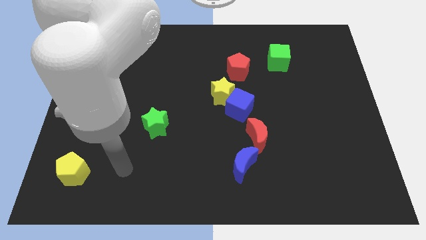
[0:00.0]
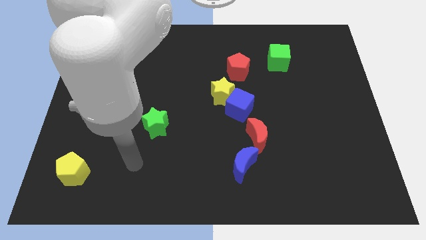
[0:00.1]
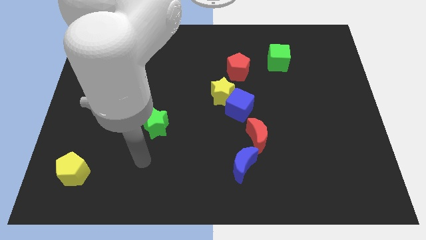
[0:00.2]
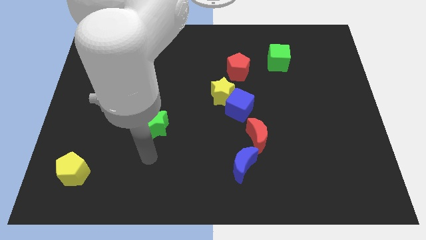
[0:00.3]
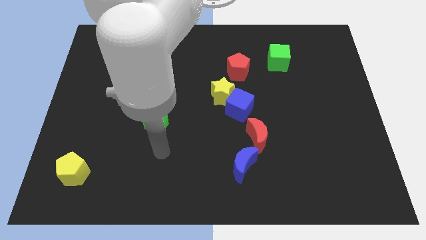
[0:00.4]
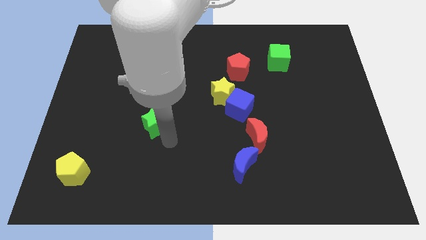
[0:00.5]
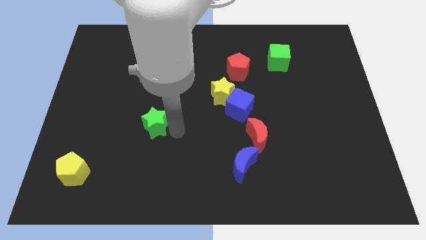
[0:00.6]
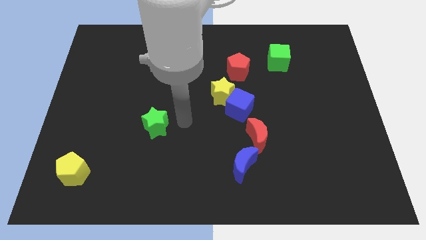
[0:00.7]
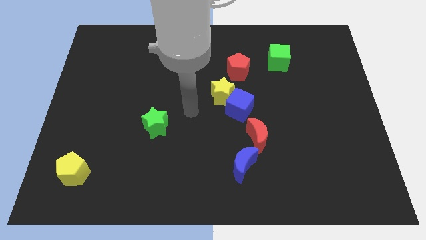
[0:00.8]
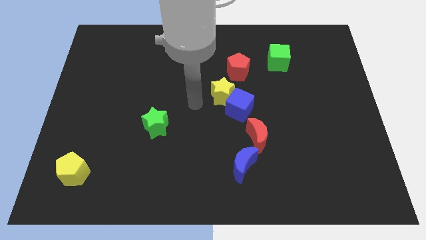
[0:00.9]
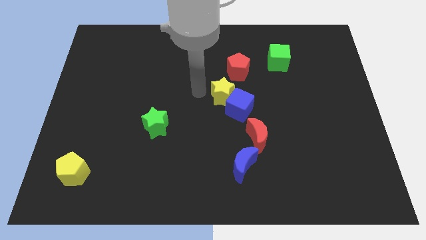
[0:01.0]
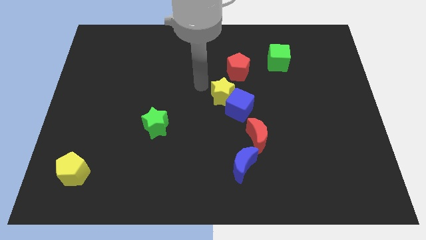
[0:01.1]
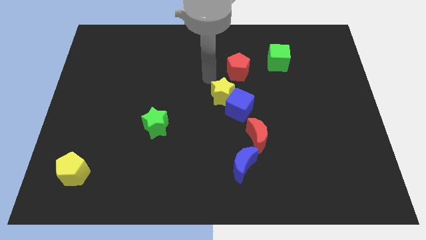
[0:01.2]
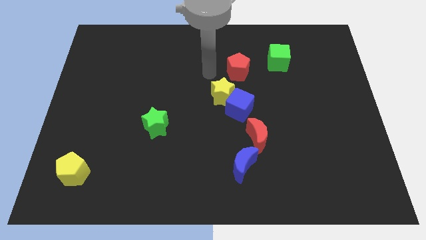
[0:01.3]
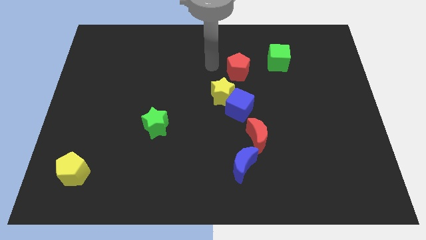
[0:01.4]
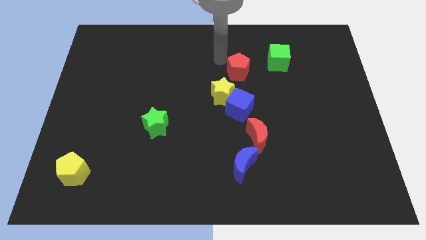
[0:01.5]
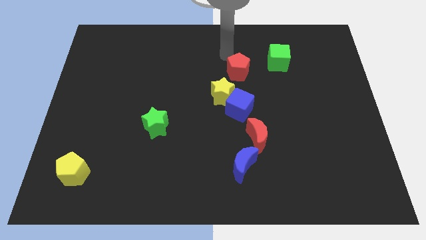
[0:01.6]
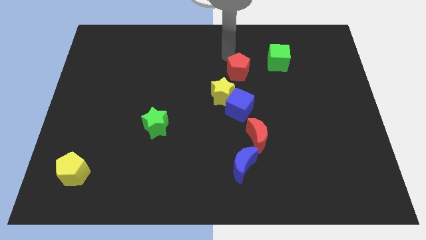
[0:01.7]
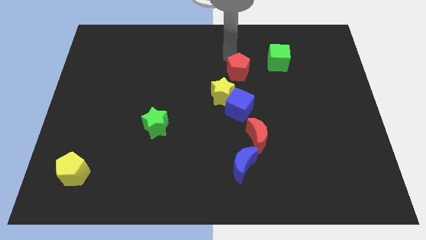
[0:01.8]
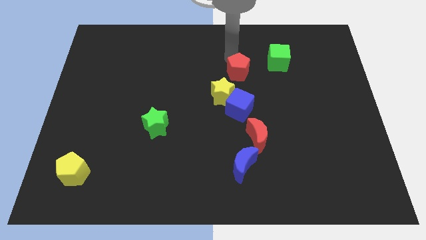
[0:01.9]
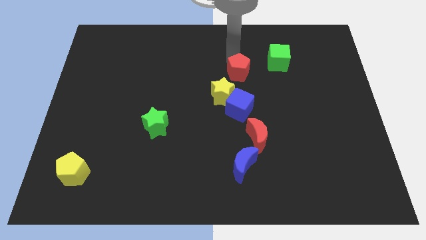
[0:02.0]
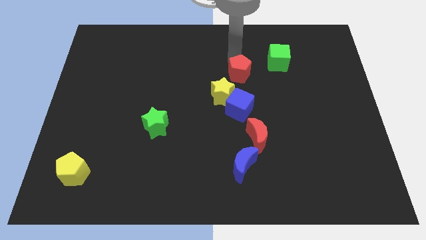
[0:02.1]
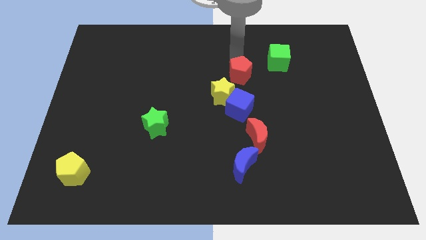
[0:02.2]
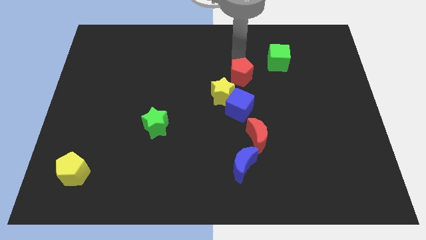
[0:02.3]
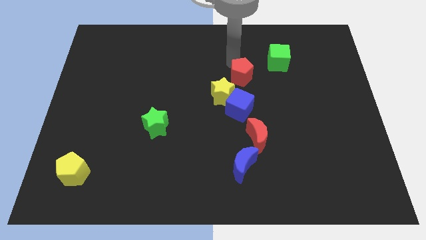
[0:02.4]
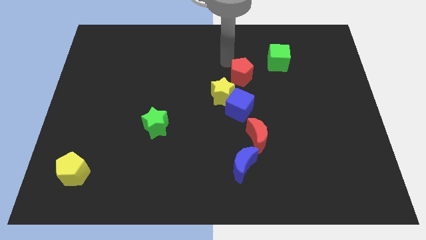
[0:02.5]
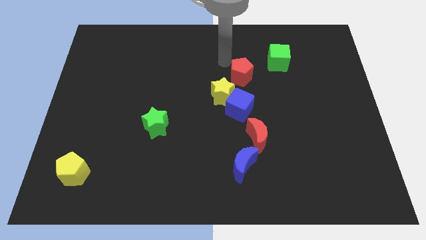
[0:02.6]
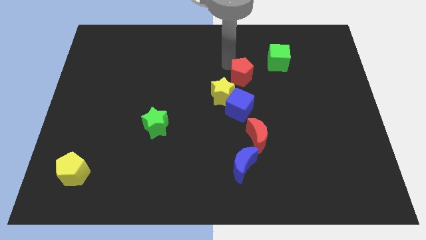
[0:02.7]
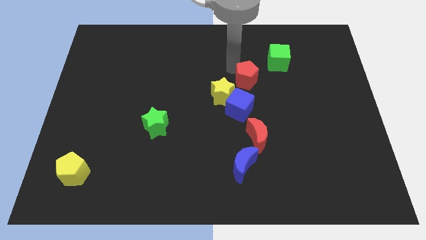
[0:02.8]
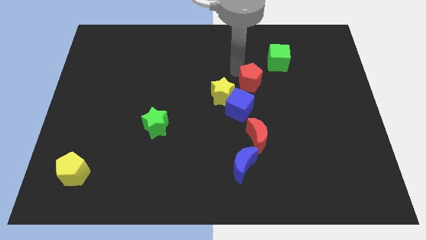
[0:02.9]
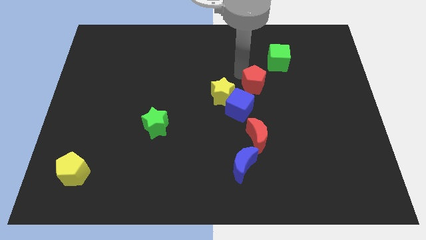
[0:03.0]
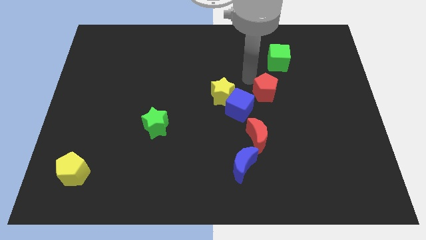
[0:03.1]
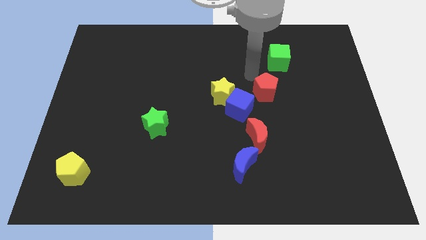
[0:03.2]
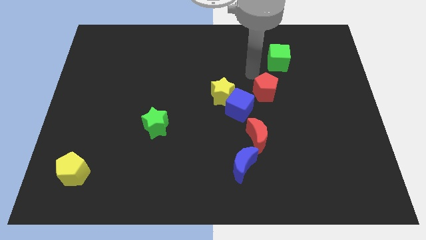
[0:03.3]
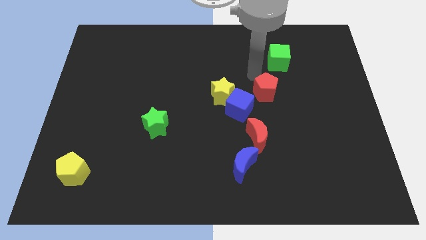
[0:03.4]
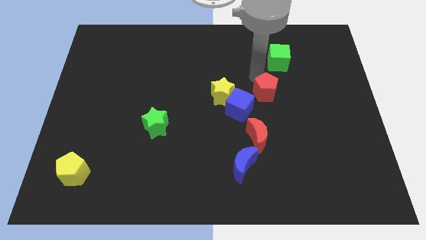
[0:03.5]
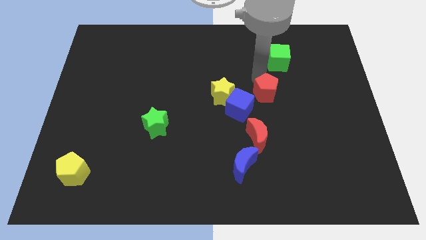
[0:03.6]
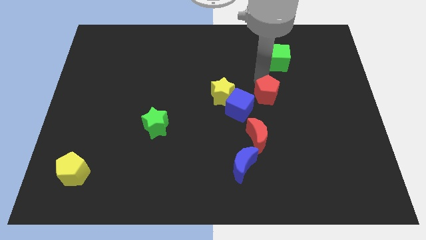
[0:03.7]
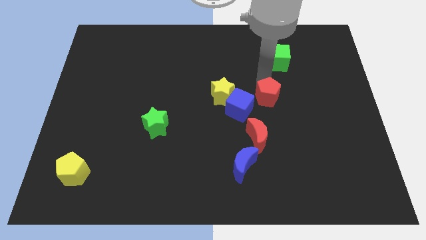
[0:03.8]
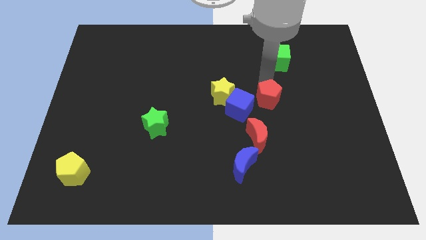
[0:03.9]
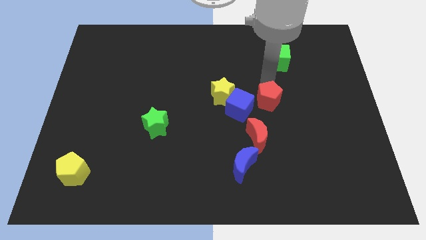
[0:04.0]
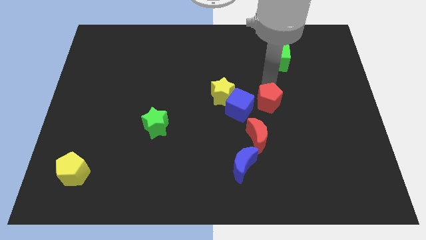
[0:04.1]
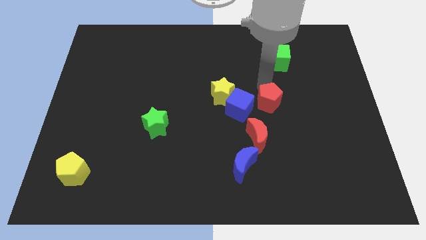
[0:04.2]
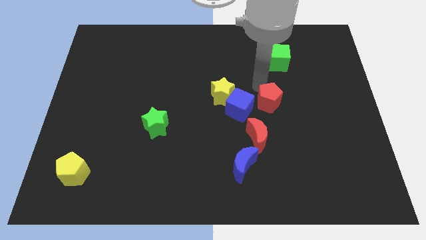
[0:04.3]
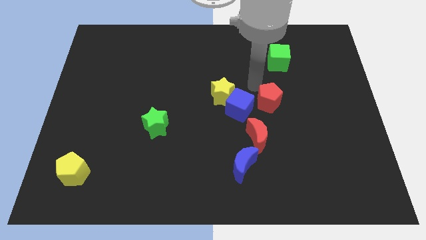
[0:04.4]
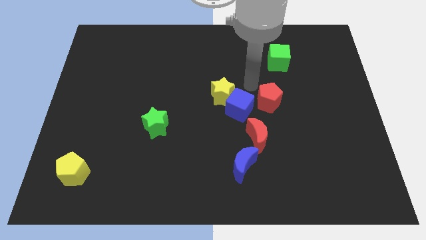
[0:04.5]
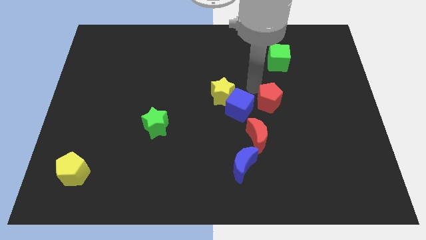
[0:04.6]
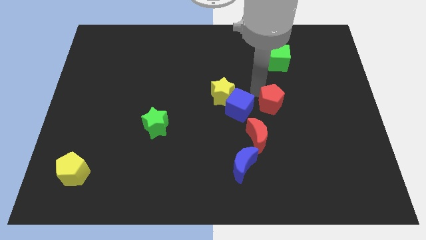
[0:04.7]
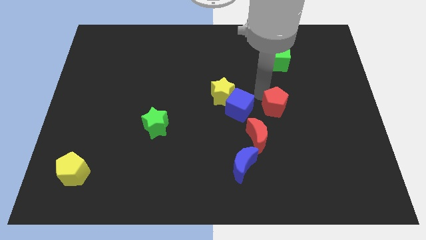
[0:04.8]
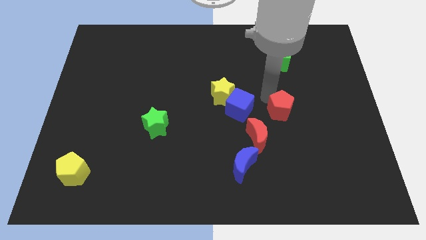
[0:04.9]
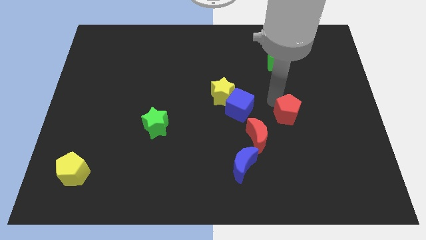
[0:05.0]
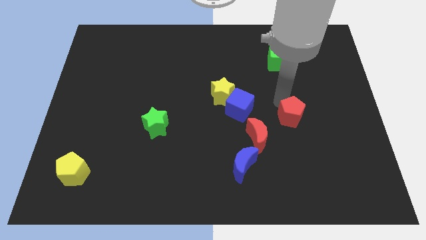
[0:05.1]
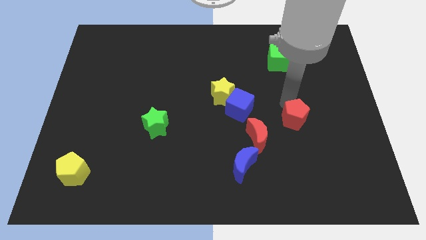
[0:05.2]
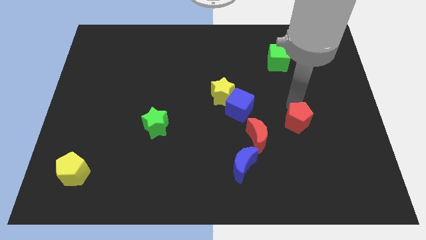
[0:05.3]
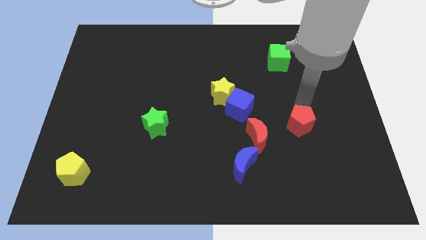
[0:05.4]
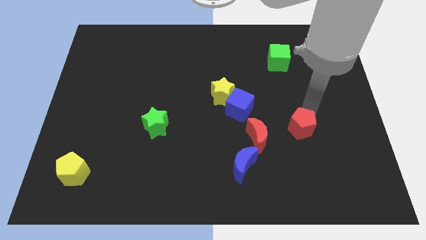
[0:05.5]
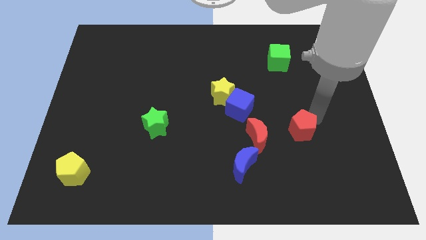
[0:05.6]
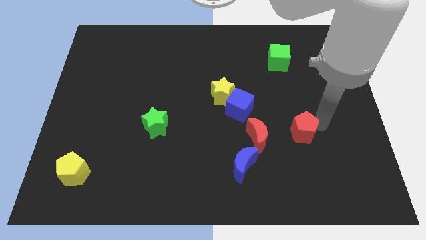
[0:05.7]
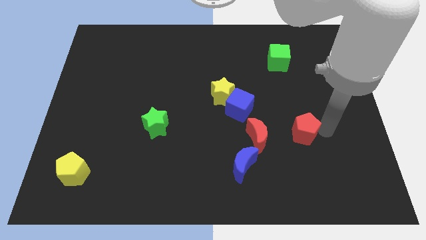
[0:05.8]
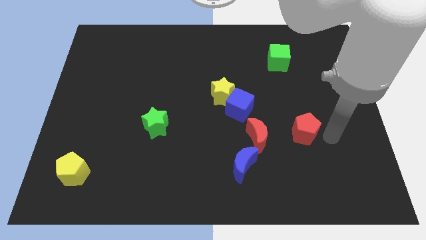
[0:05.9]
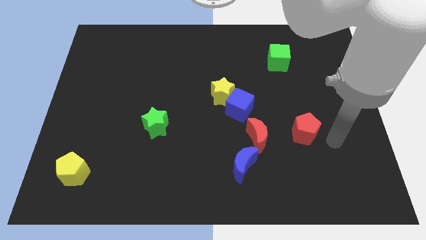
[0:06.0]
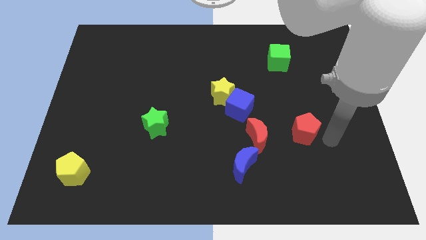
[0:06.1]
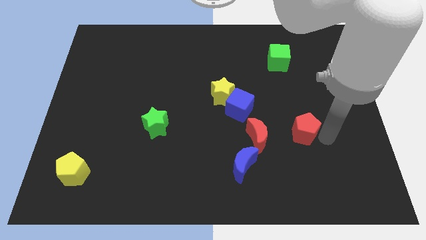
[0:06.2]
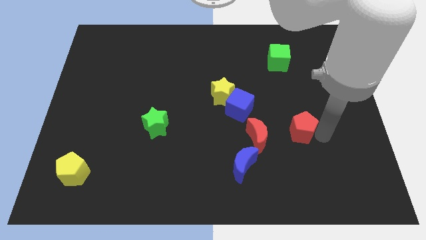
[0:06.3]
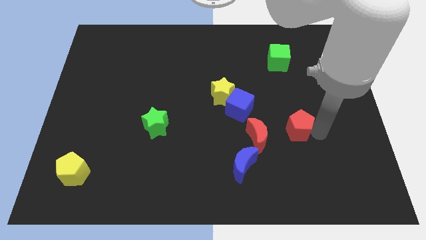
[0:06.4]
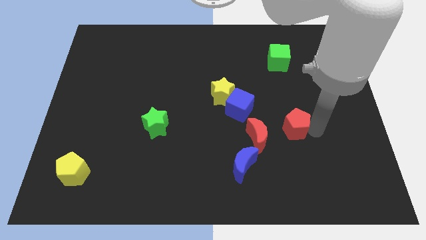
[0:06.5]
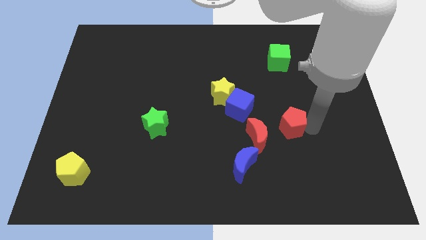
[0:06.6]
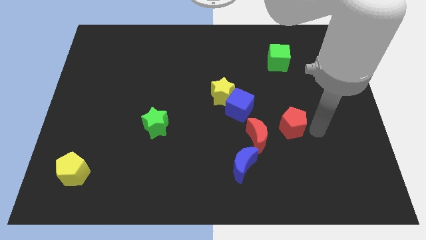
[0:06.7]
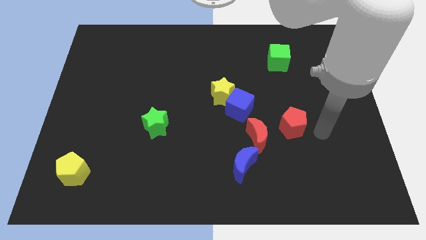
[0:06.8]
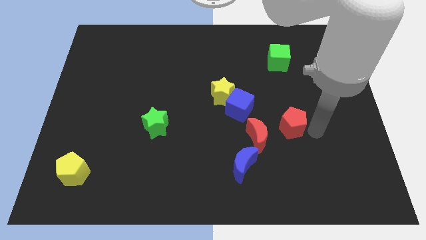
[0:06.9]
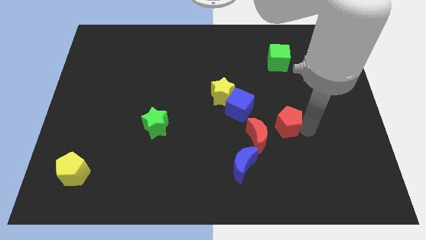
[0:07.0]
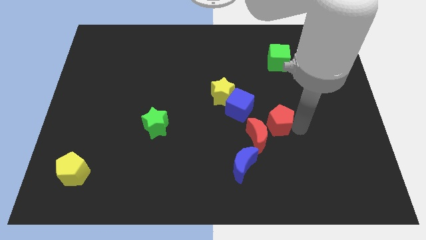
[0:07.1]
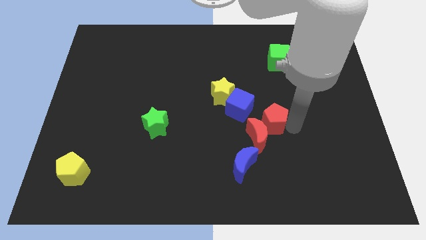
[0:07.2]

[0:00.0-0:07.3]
push the red pentagon next to the red moon

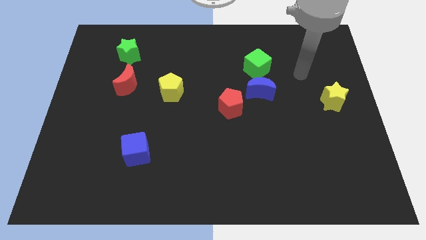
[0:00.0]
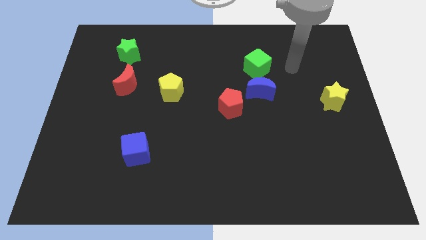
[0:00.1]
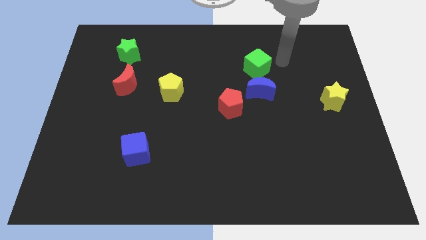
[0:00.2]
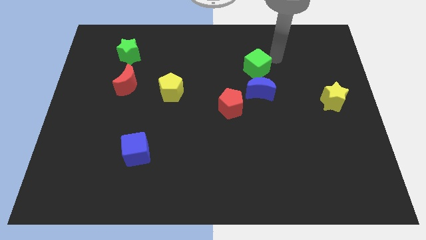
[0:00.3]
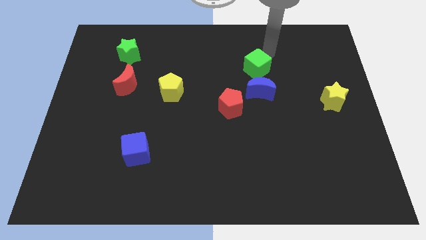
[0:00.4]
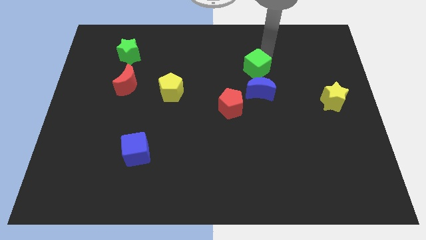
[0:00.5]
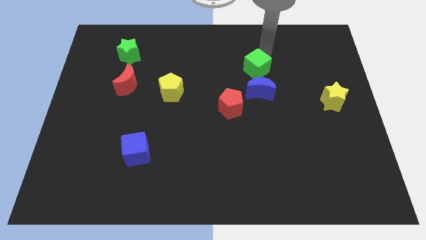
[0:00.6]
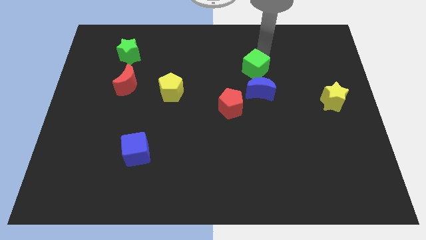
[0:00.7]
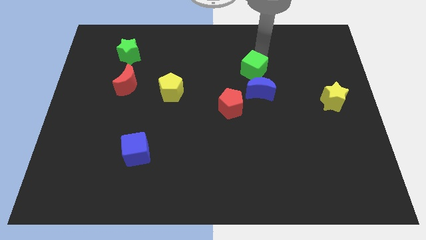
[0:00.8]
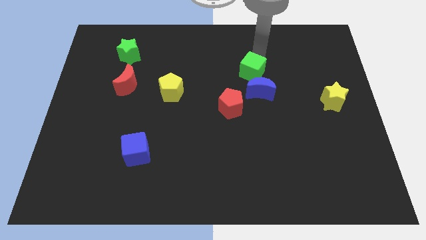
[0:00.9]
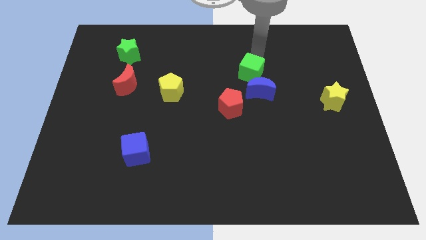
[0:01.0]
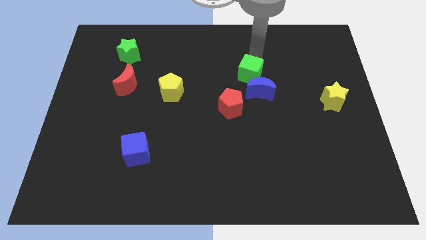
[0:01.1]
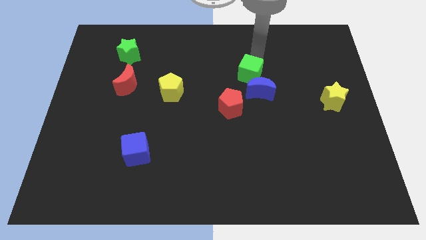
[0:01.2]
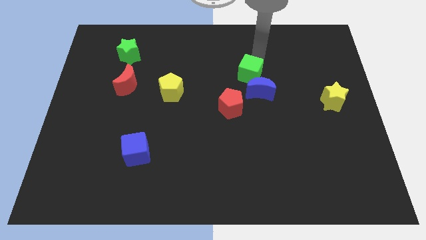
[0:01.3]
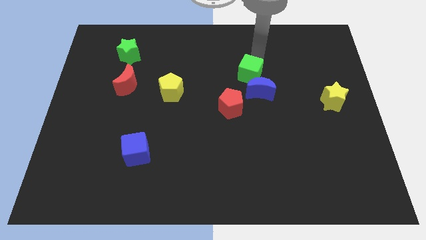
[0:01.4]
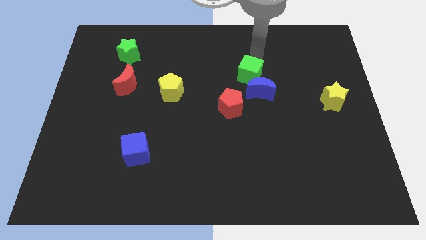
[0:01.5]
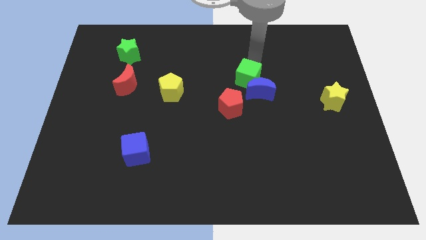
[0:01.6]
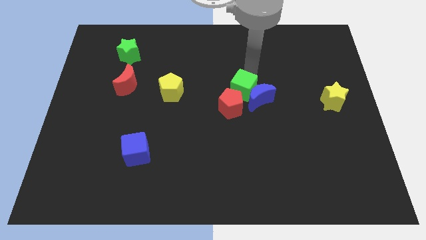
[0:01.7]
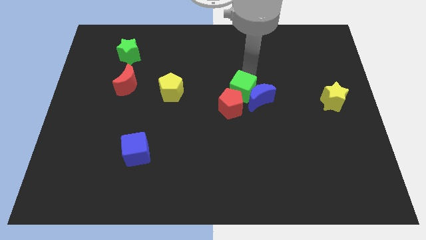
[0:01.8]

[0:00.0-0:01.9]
push the green cube to the red pentagon
